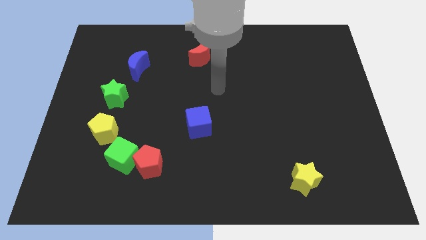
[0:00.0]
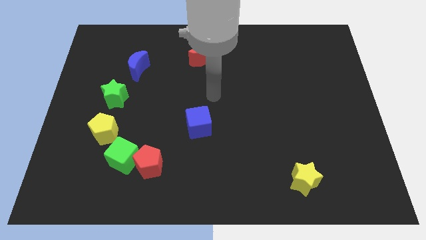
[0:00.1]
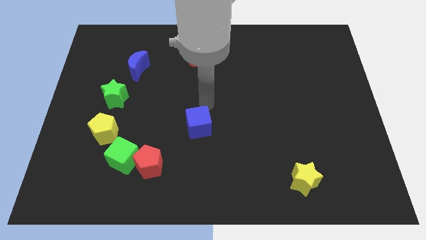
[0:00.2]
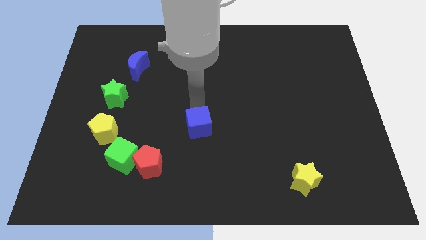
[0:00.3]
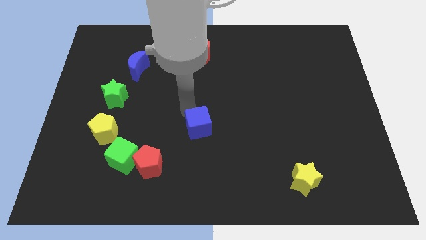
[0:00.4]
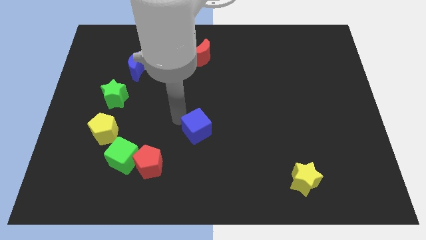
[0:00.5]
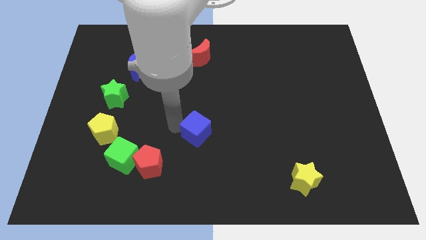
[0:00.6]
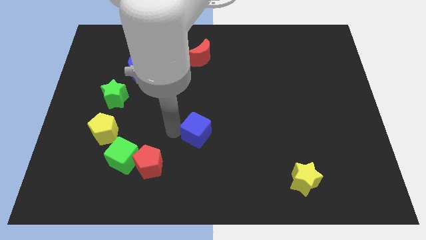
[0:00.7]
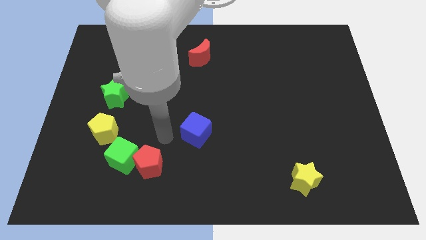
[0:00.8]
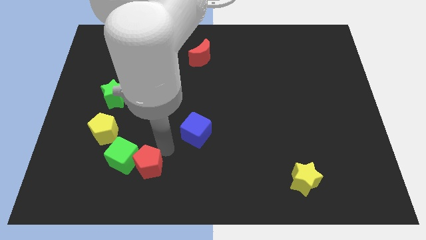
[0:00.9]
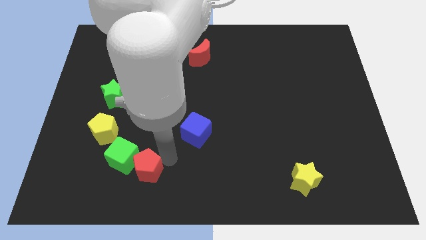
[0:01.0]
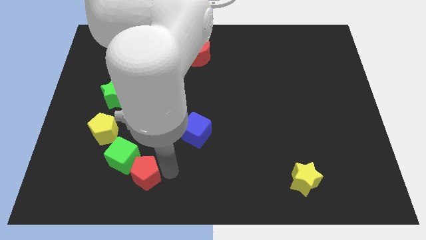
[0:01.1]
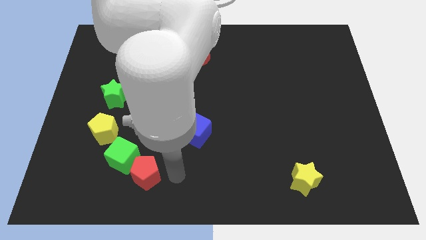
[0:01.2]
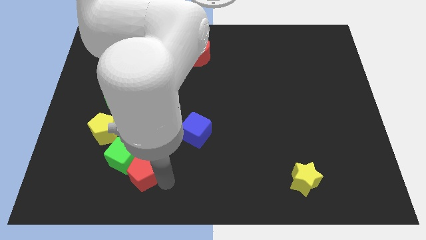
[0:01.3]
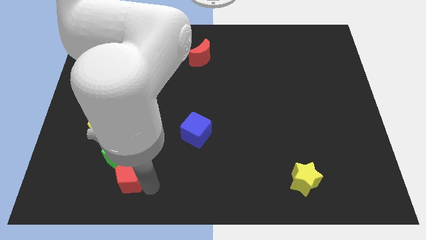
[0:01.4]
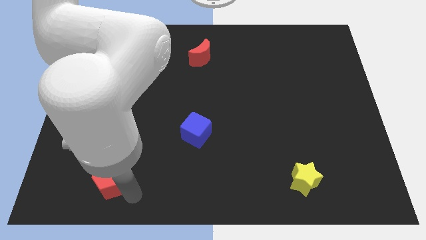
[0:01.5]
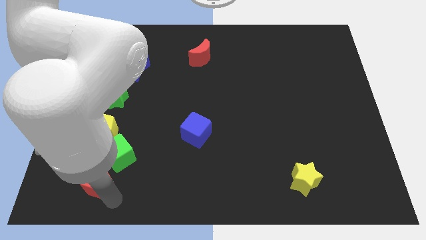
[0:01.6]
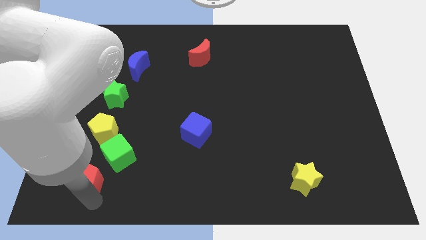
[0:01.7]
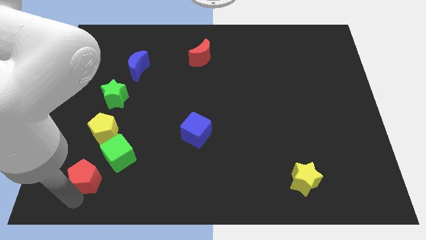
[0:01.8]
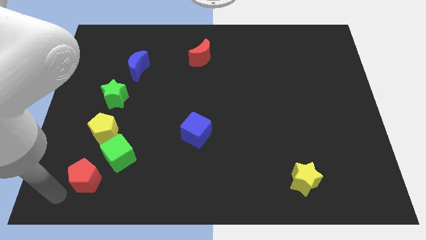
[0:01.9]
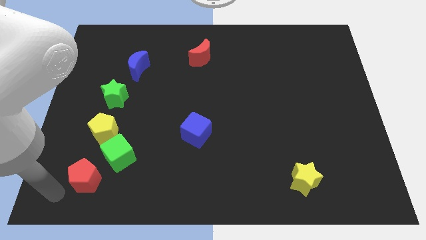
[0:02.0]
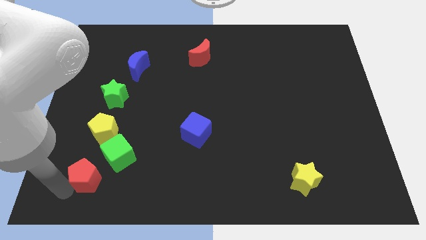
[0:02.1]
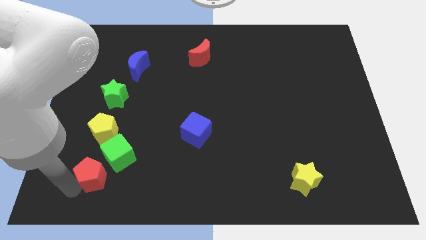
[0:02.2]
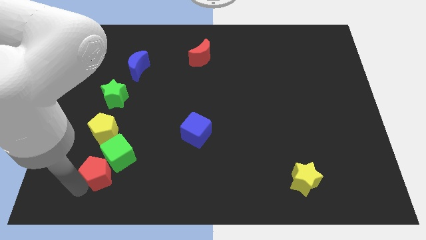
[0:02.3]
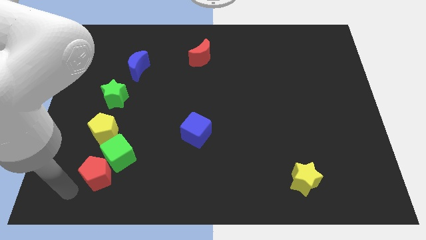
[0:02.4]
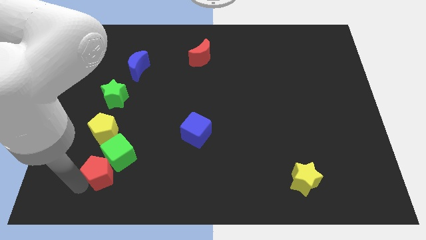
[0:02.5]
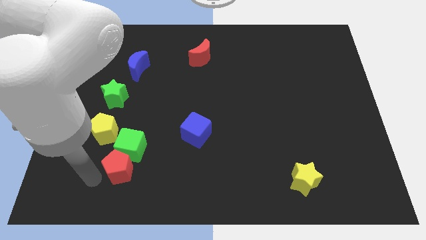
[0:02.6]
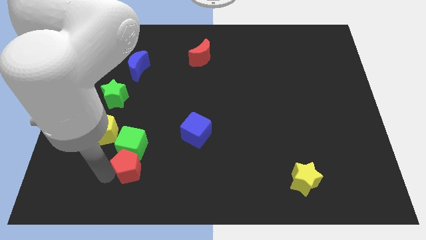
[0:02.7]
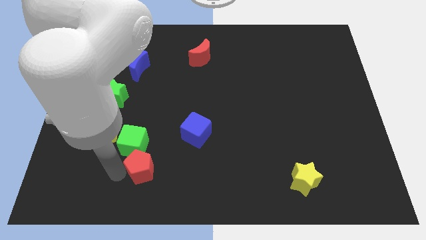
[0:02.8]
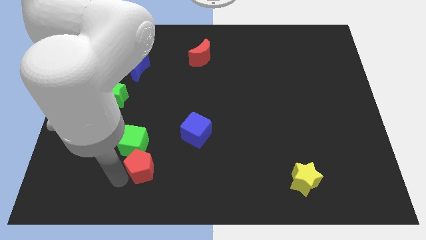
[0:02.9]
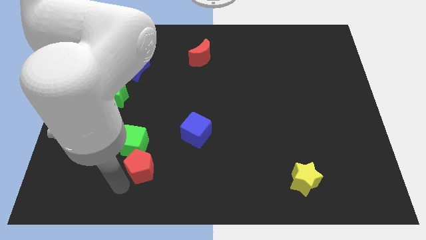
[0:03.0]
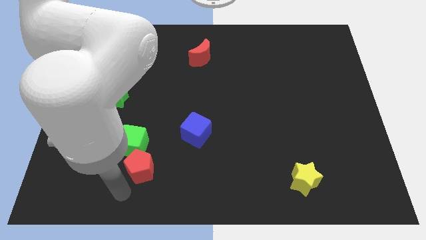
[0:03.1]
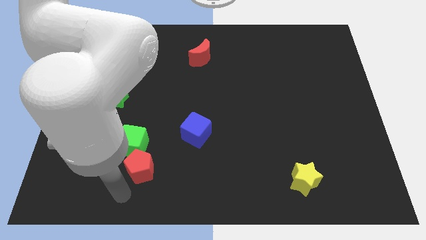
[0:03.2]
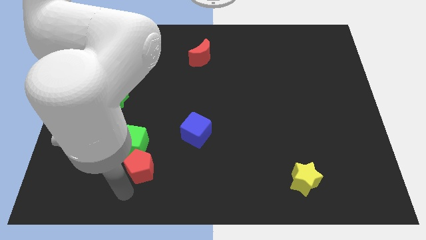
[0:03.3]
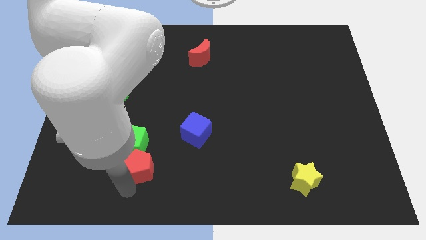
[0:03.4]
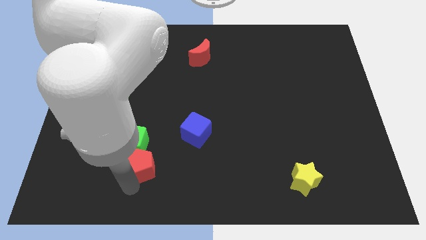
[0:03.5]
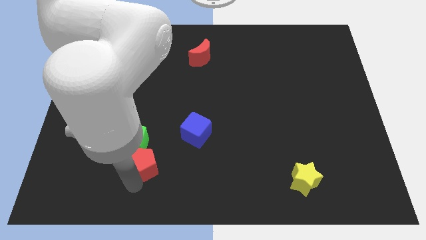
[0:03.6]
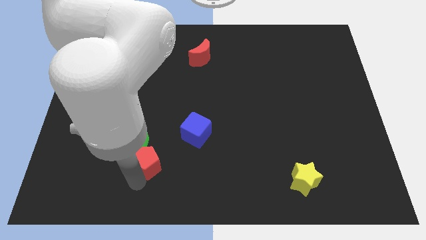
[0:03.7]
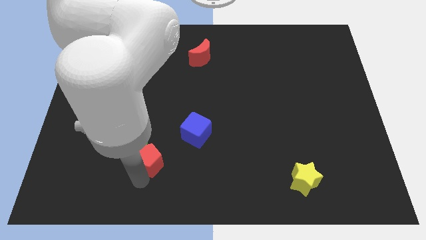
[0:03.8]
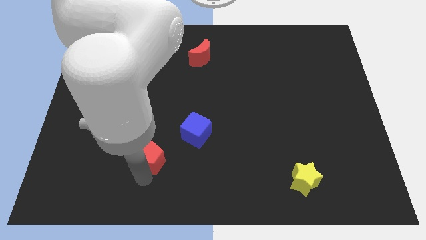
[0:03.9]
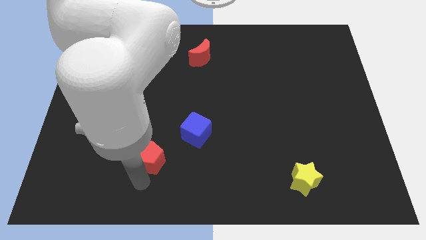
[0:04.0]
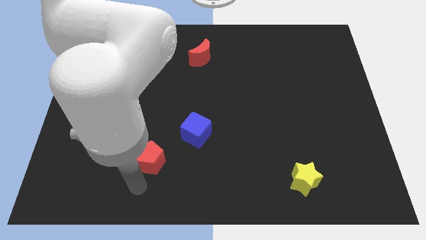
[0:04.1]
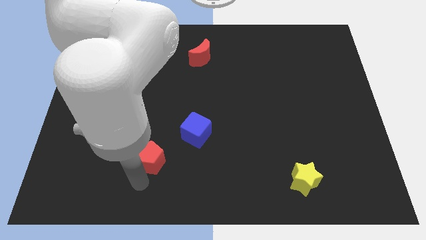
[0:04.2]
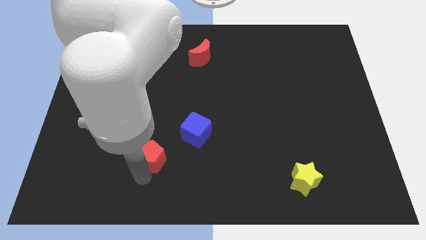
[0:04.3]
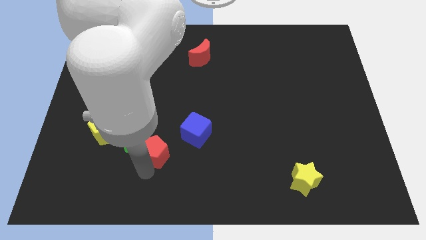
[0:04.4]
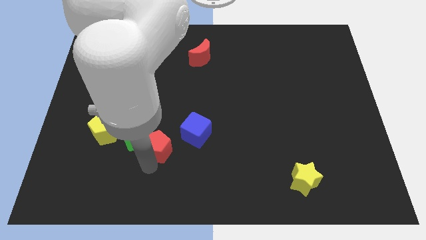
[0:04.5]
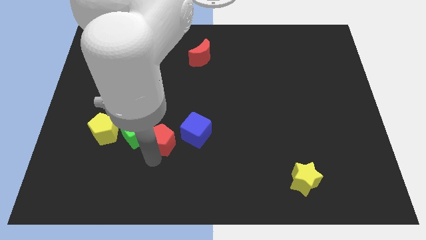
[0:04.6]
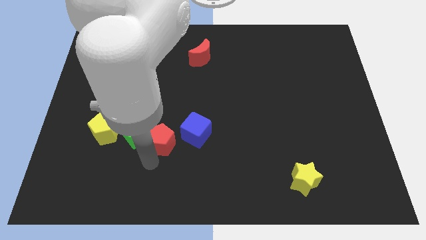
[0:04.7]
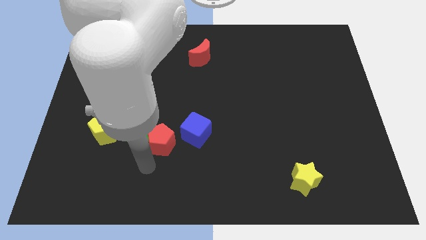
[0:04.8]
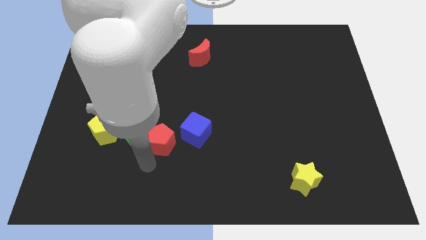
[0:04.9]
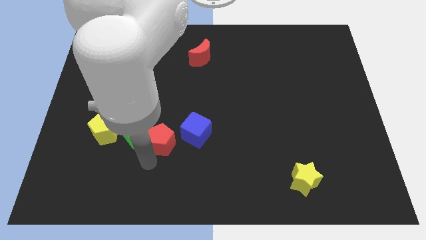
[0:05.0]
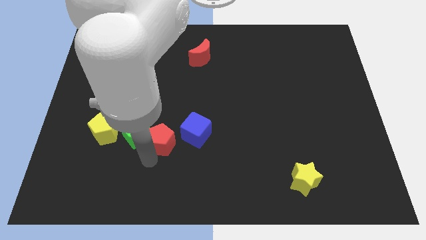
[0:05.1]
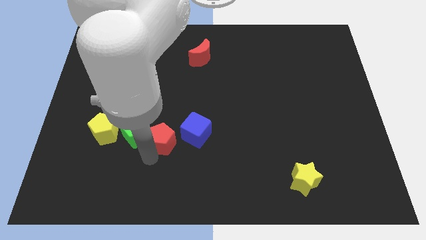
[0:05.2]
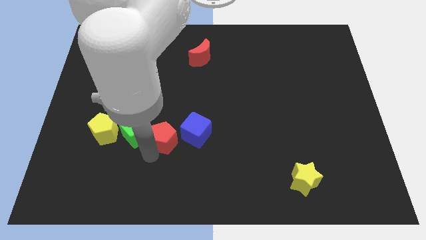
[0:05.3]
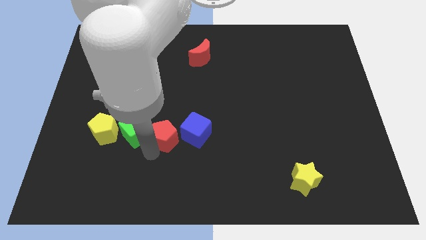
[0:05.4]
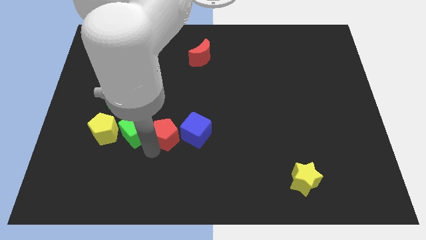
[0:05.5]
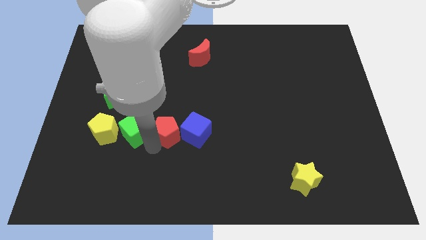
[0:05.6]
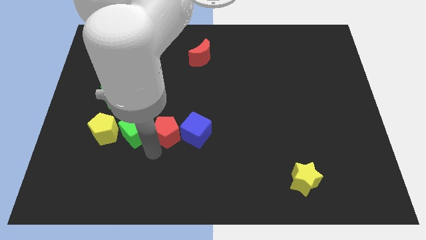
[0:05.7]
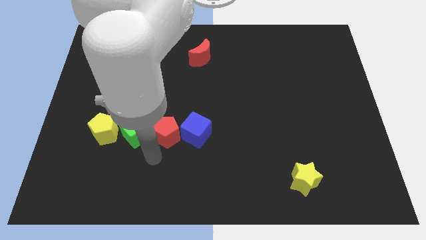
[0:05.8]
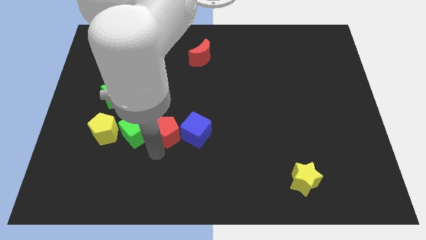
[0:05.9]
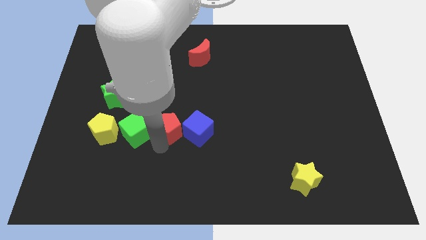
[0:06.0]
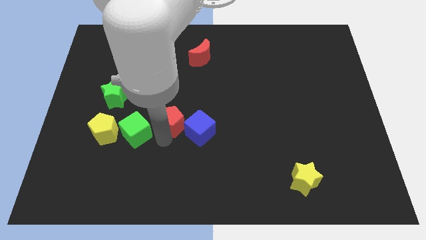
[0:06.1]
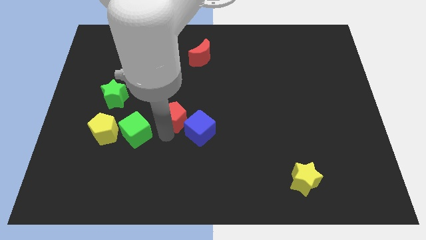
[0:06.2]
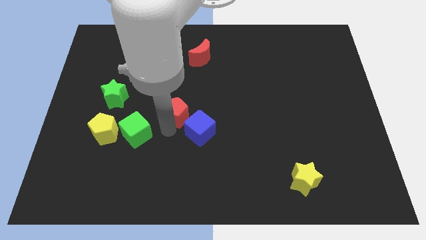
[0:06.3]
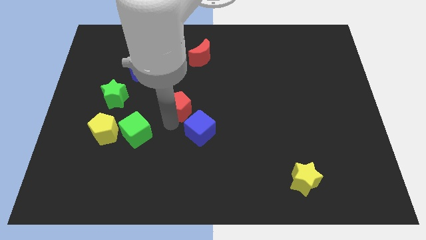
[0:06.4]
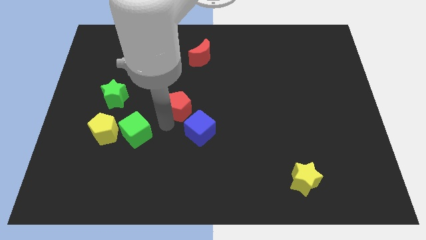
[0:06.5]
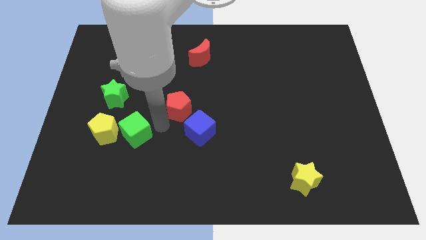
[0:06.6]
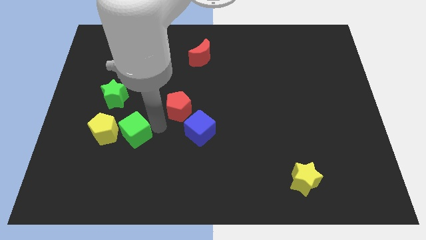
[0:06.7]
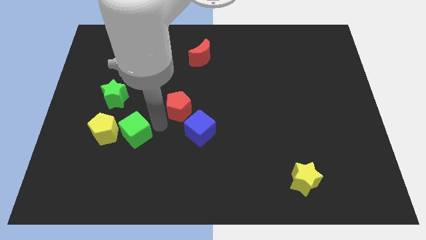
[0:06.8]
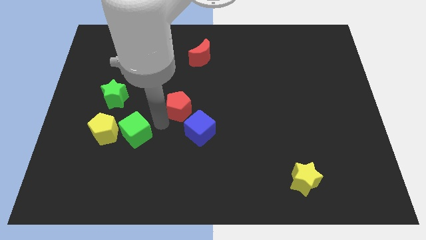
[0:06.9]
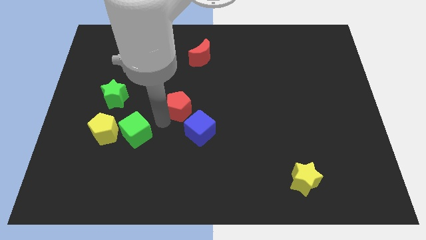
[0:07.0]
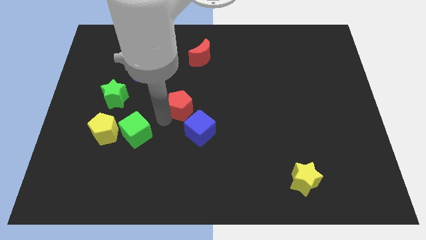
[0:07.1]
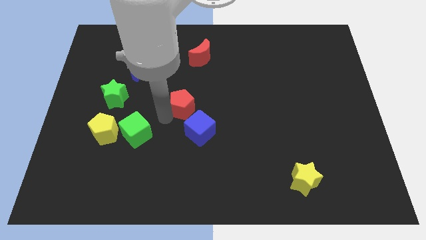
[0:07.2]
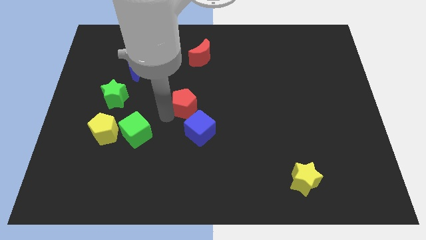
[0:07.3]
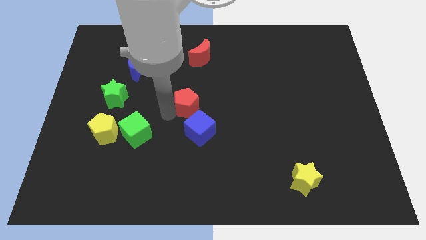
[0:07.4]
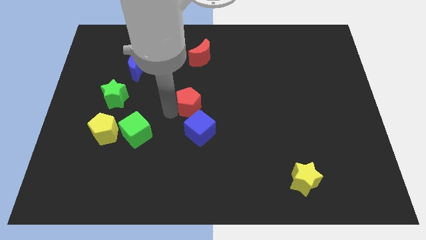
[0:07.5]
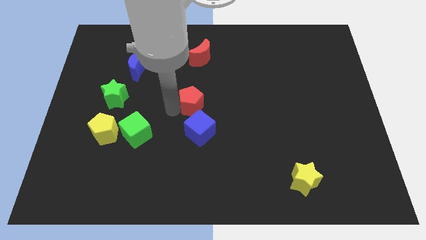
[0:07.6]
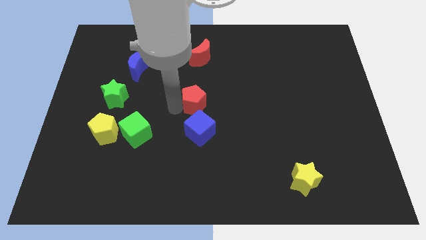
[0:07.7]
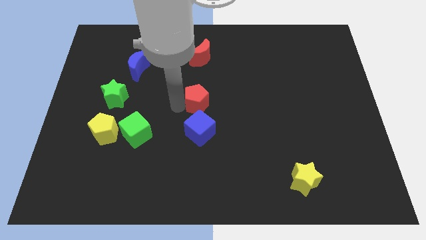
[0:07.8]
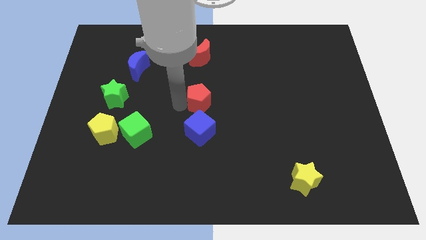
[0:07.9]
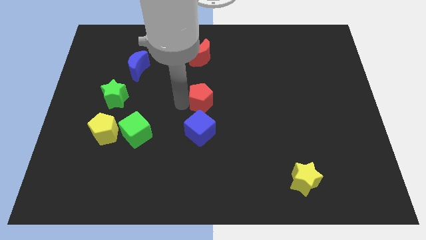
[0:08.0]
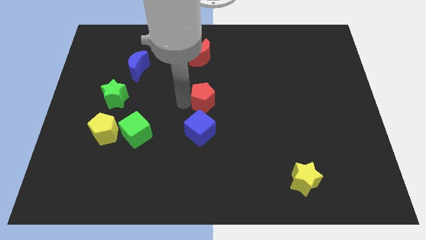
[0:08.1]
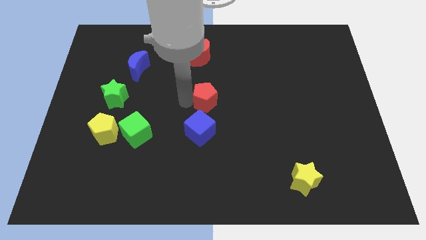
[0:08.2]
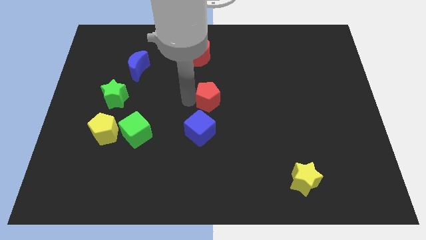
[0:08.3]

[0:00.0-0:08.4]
push the red pentagon upwards and then to the right
